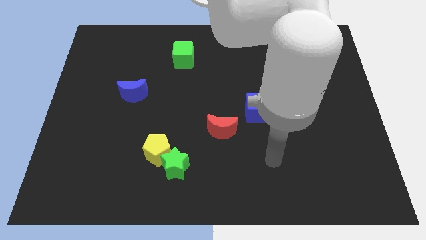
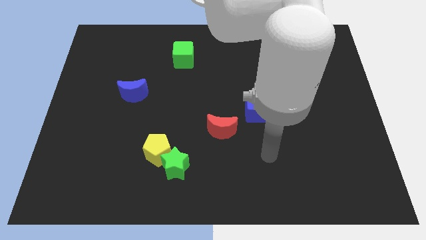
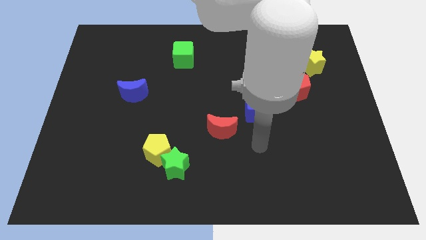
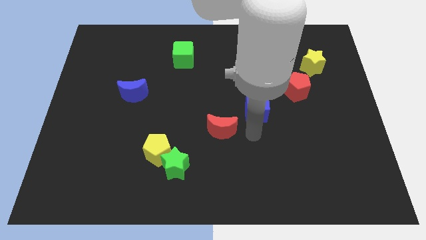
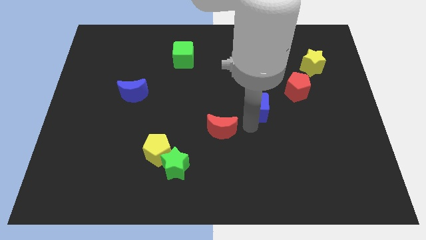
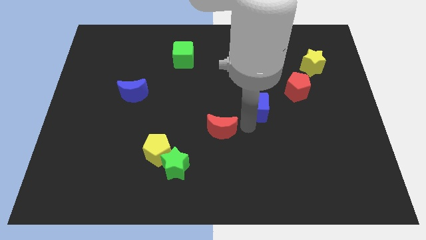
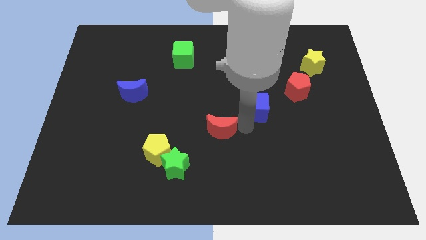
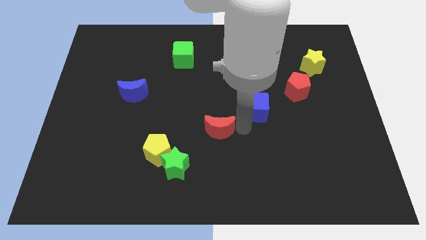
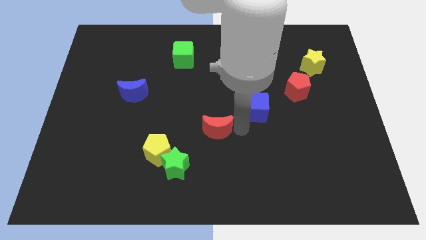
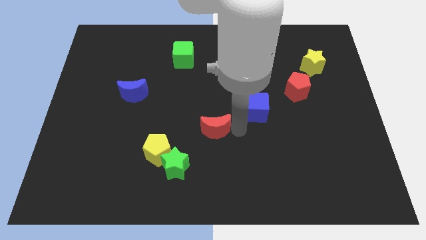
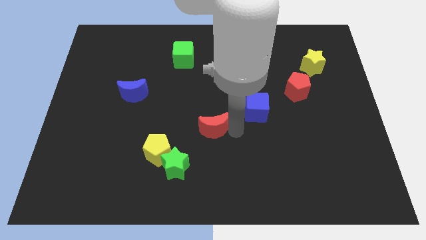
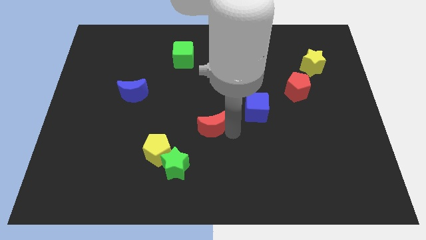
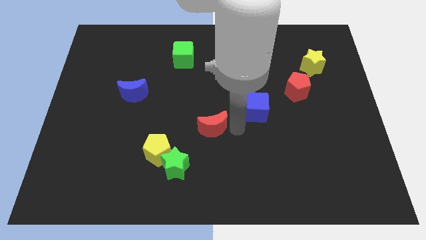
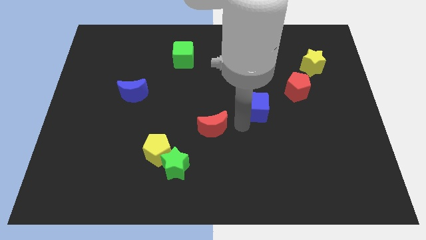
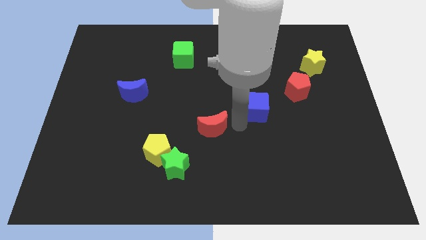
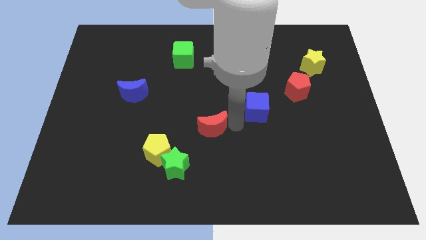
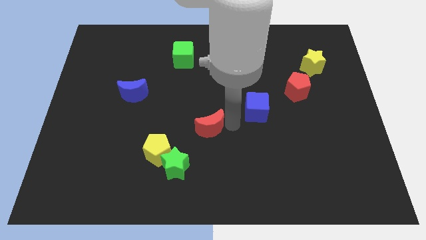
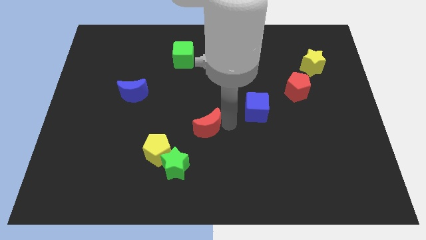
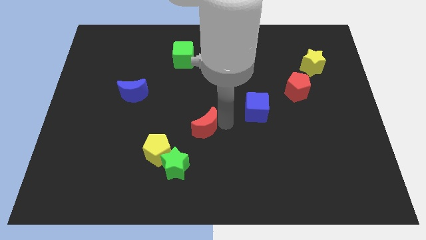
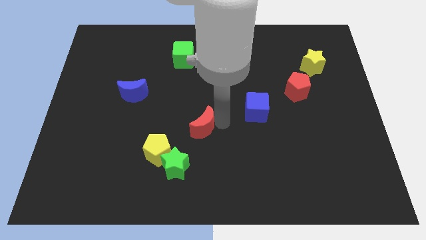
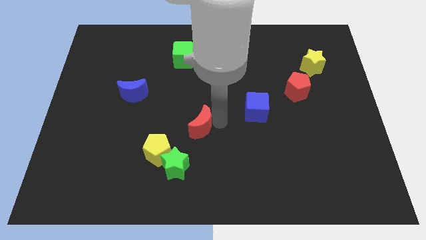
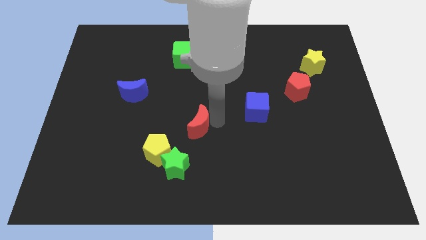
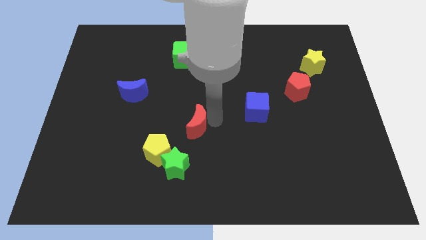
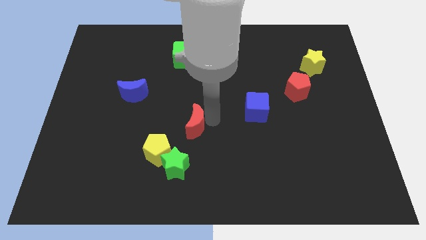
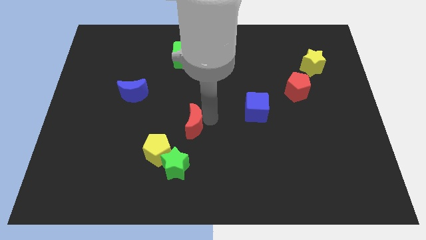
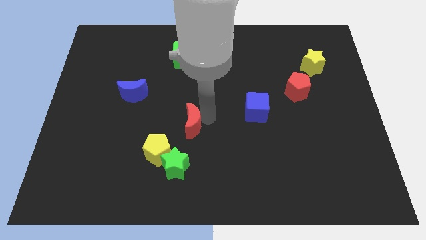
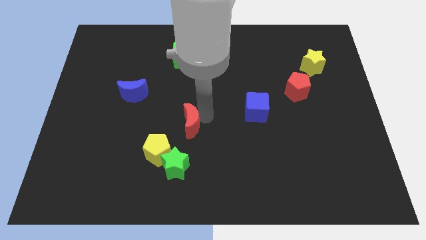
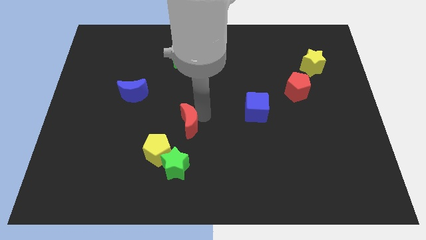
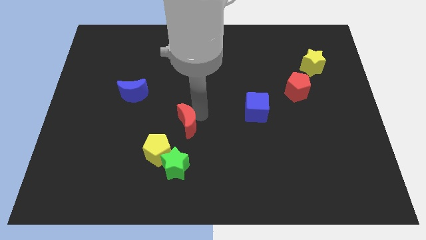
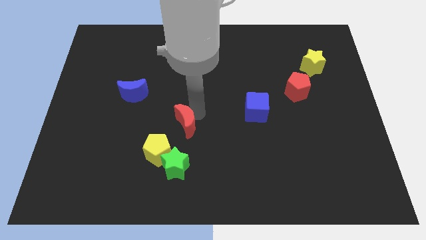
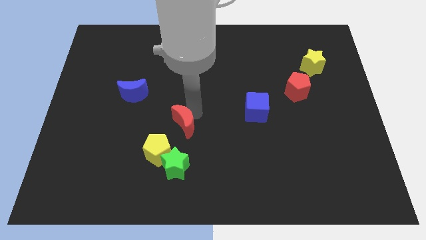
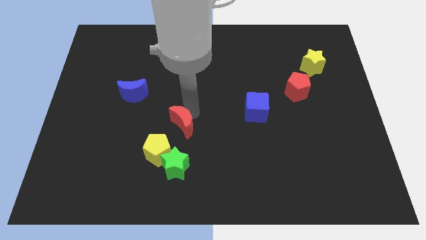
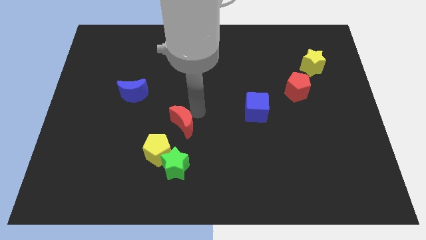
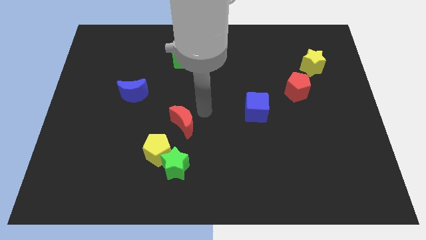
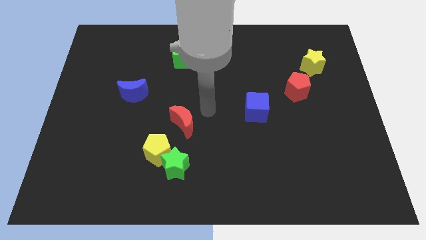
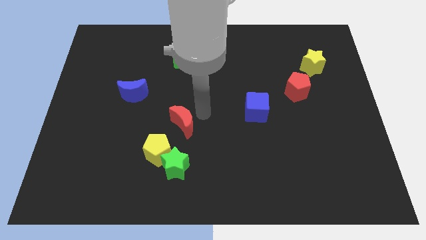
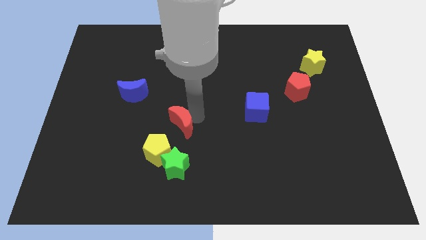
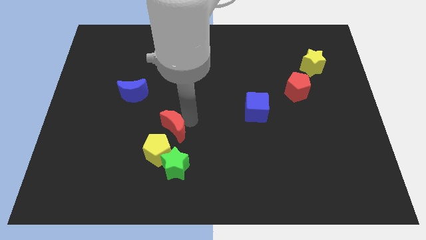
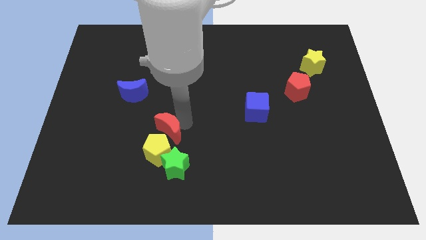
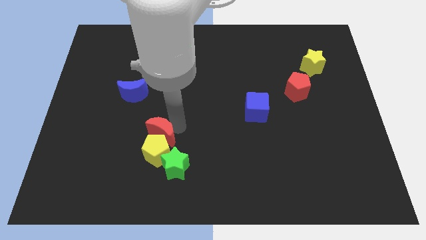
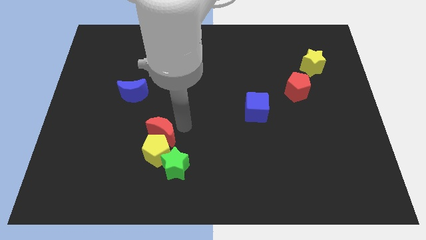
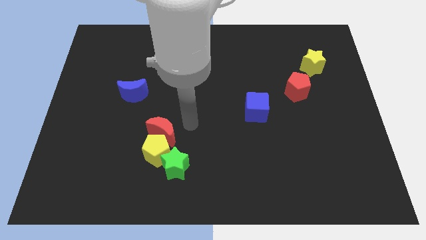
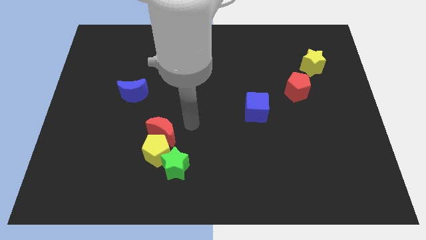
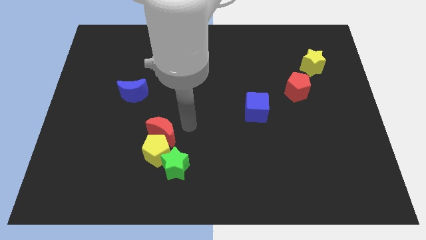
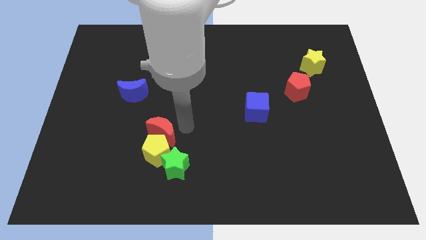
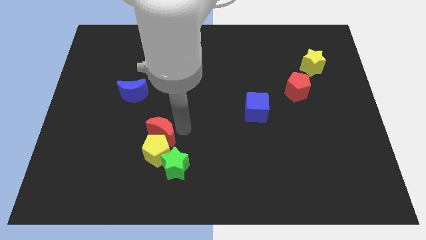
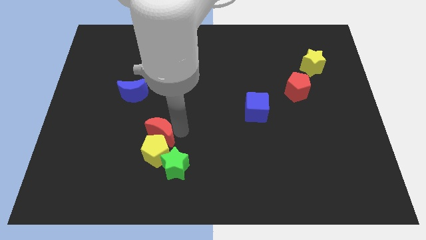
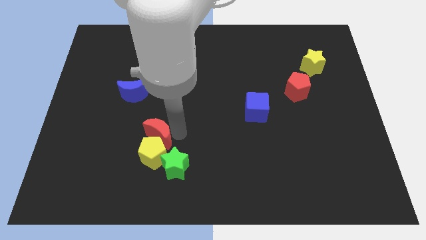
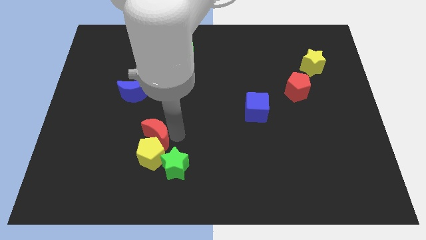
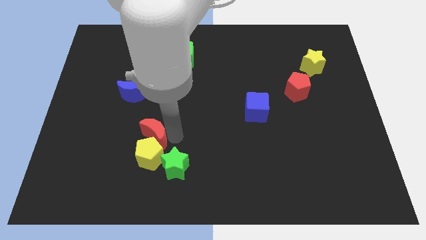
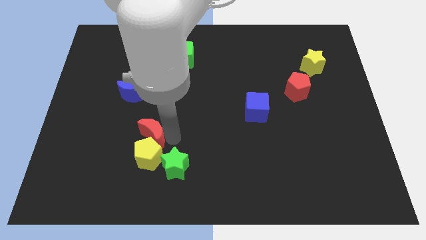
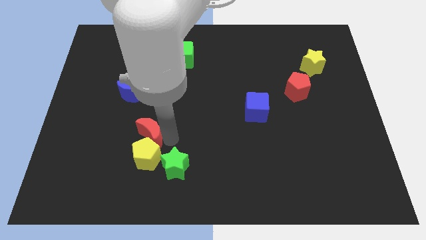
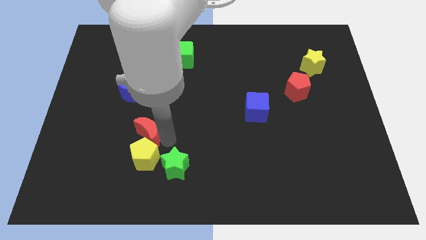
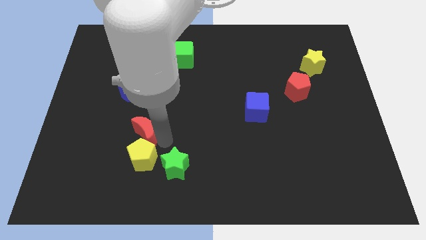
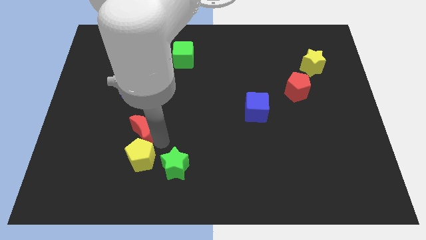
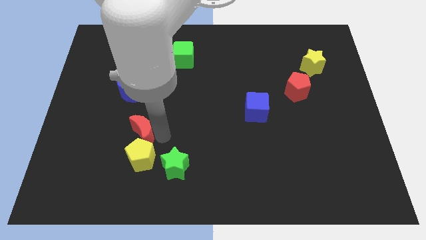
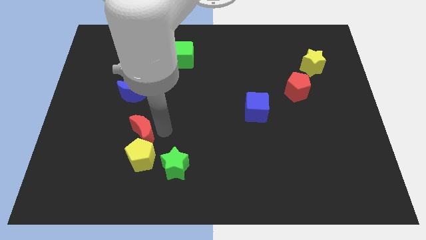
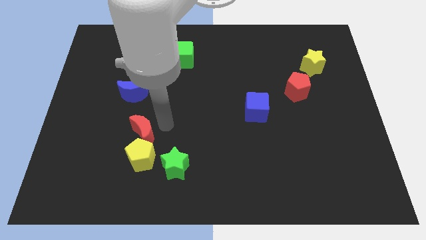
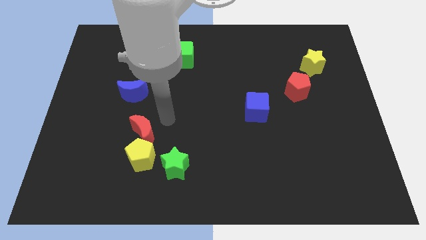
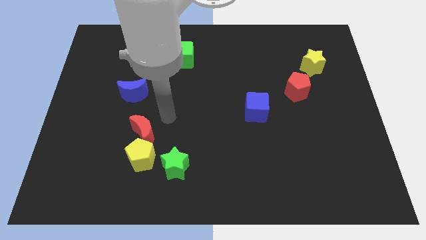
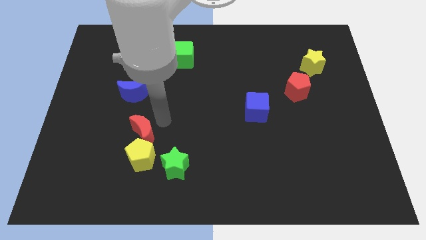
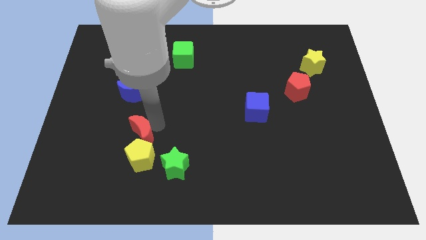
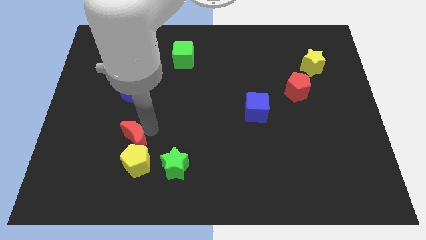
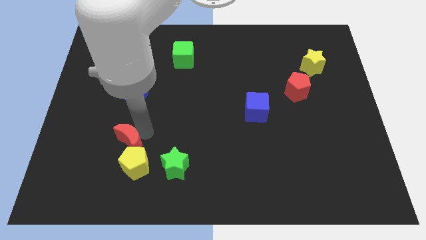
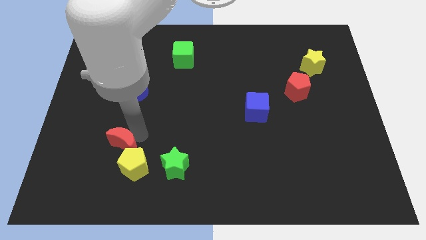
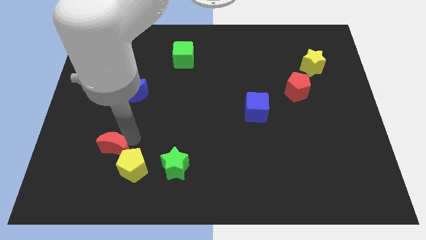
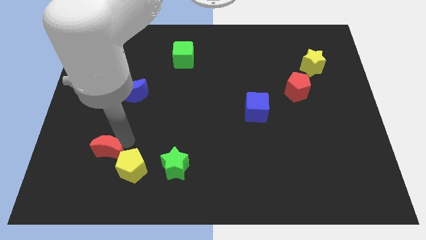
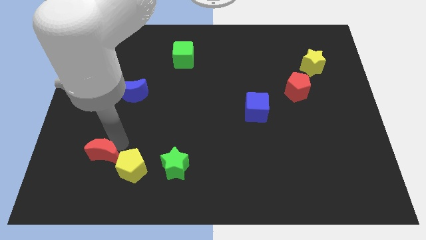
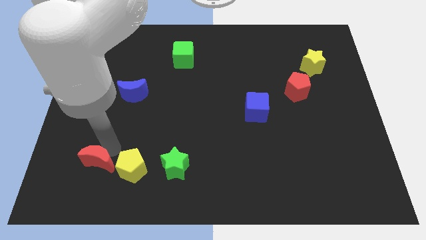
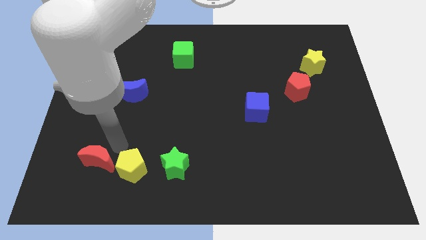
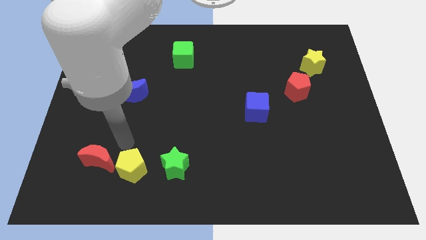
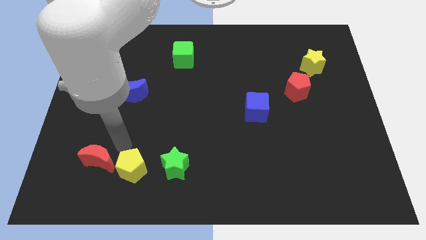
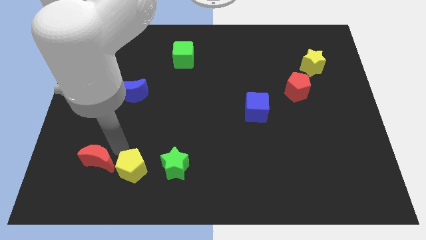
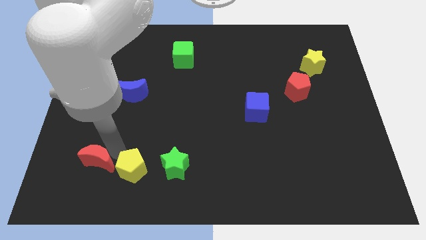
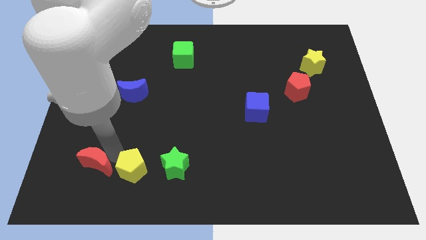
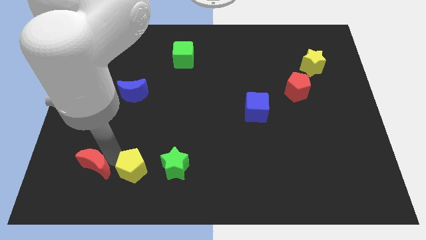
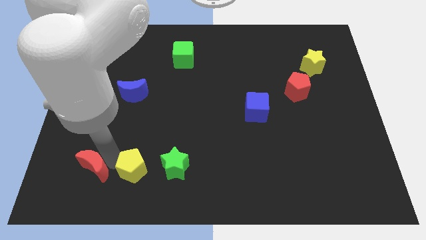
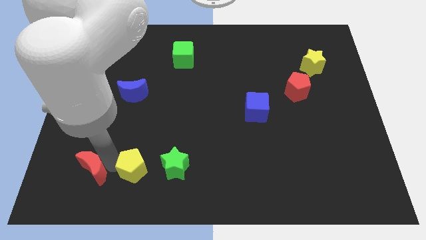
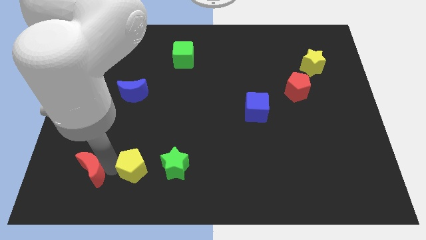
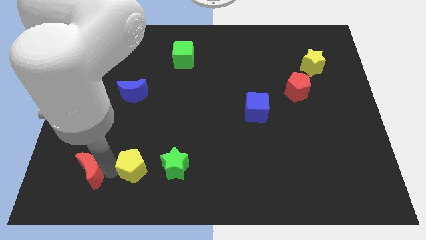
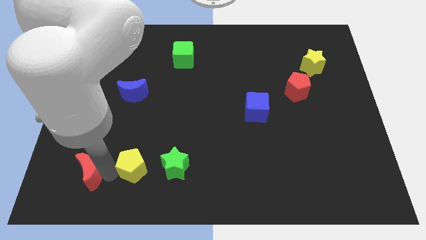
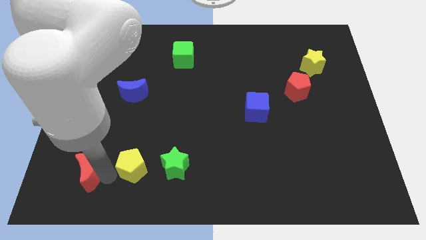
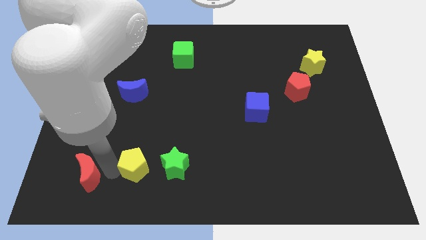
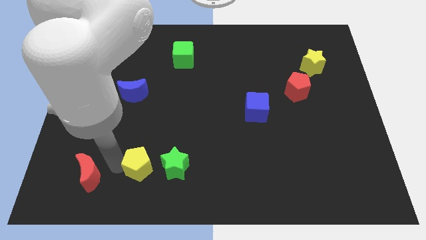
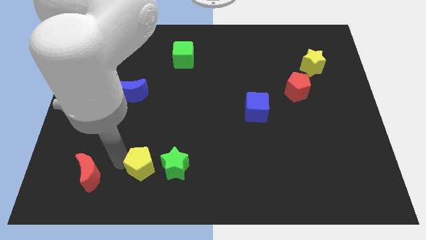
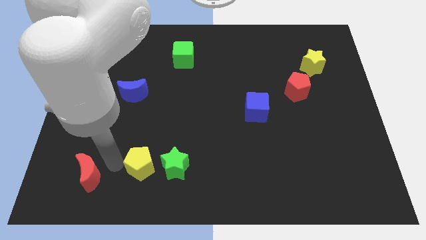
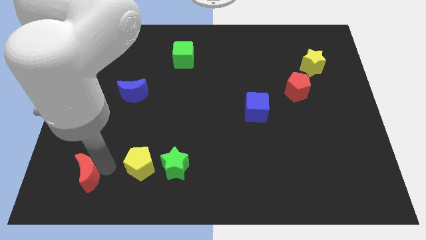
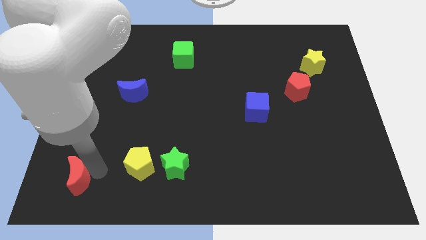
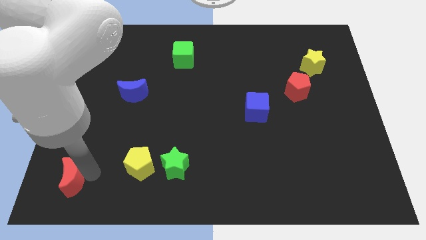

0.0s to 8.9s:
push the red moon to the bottom left corner
